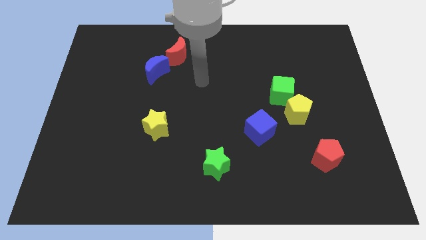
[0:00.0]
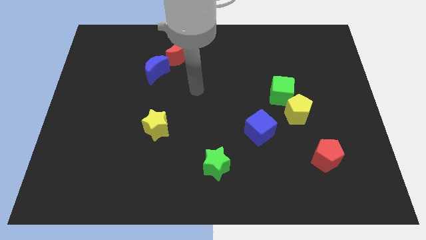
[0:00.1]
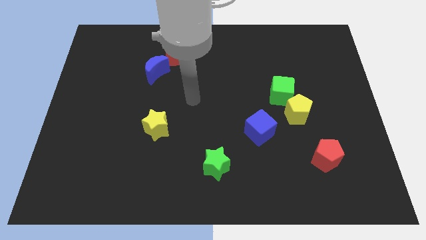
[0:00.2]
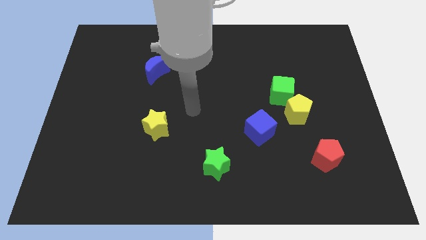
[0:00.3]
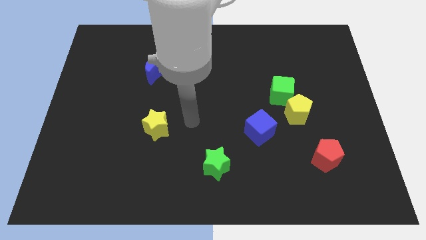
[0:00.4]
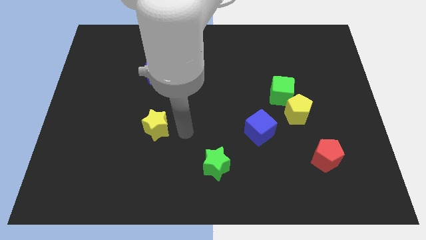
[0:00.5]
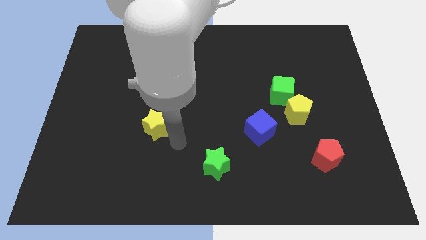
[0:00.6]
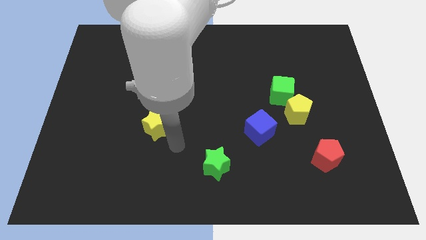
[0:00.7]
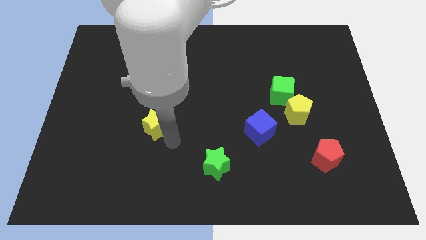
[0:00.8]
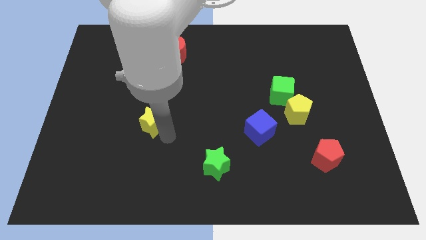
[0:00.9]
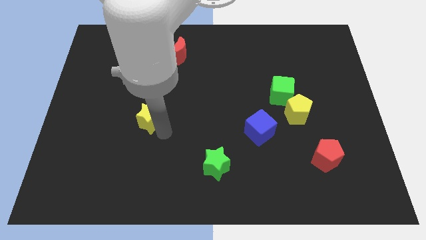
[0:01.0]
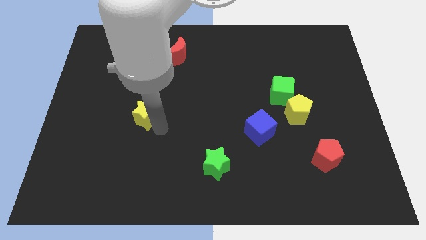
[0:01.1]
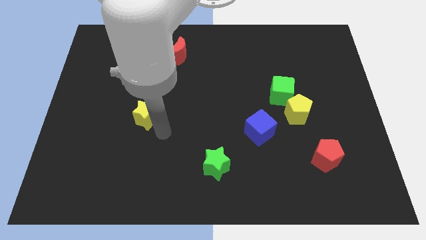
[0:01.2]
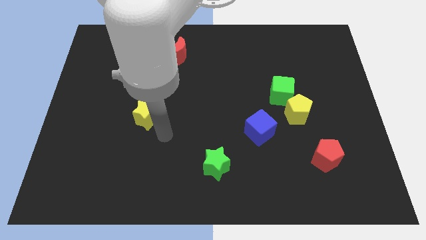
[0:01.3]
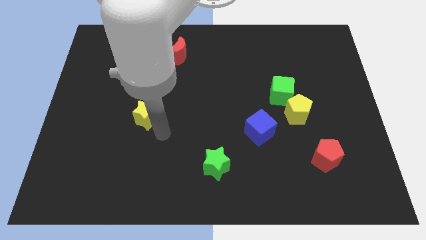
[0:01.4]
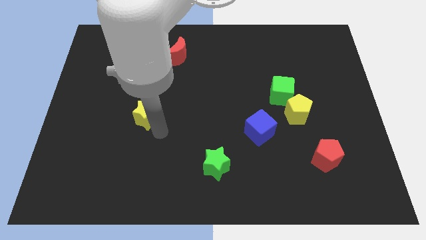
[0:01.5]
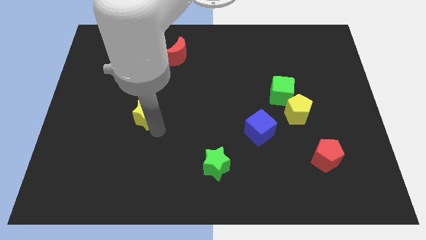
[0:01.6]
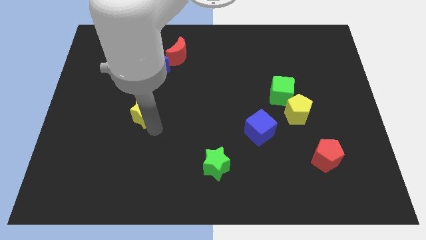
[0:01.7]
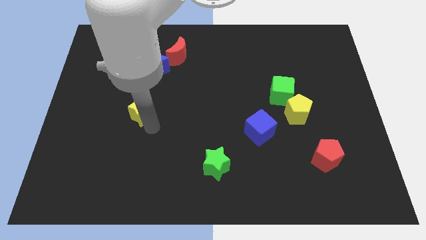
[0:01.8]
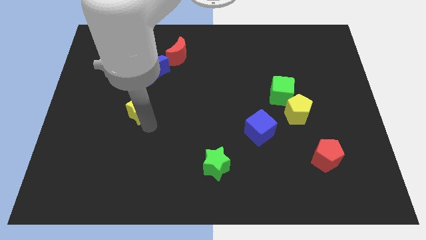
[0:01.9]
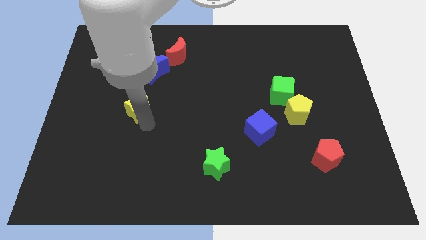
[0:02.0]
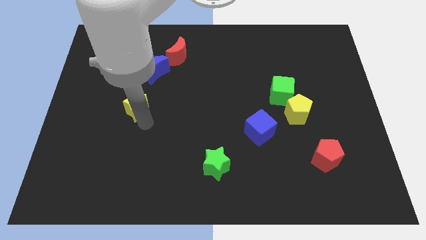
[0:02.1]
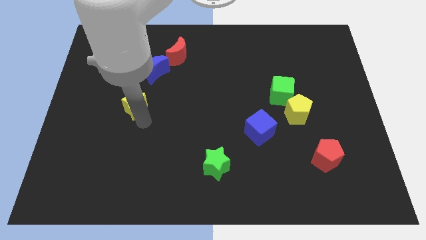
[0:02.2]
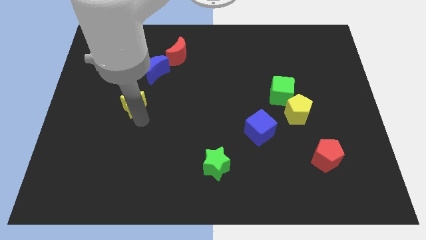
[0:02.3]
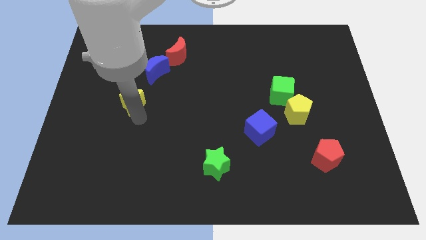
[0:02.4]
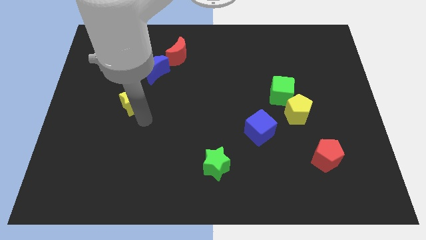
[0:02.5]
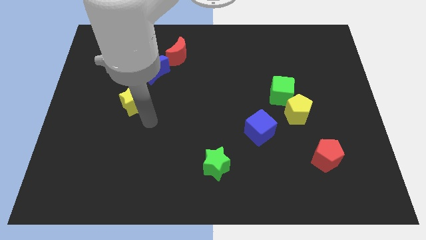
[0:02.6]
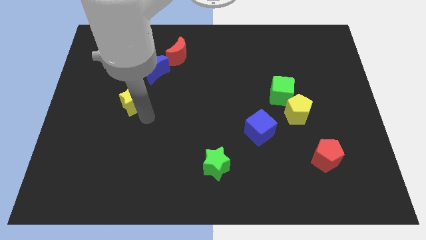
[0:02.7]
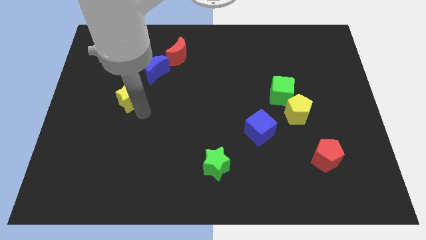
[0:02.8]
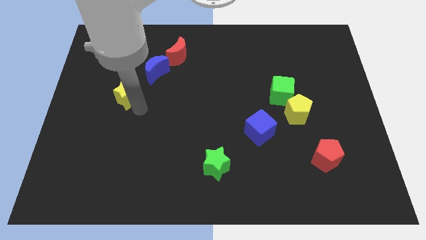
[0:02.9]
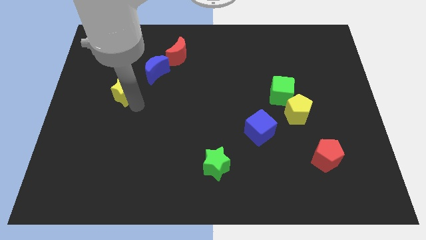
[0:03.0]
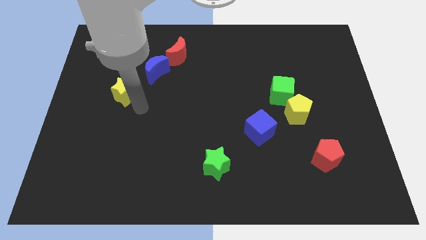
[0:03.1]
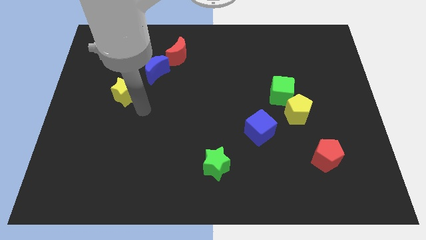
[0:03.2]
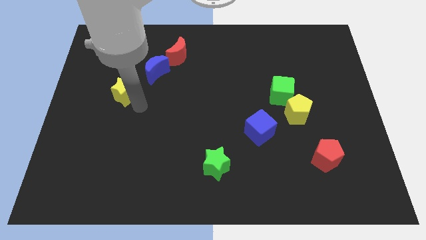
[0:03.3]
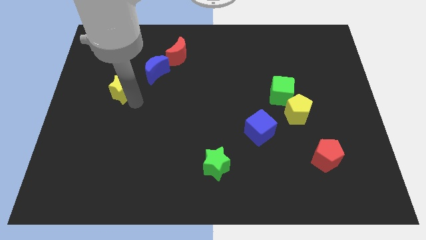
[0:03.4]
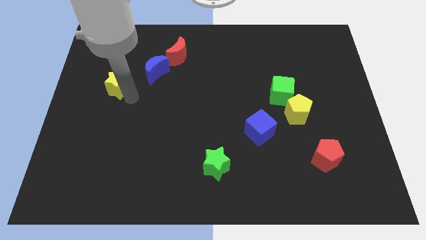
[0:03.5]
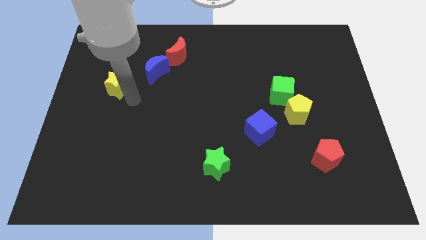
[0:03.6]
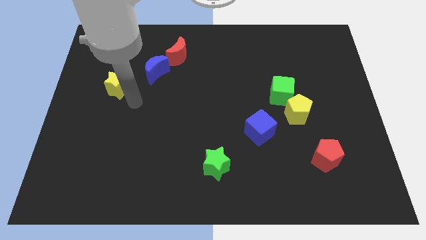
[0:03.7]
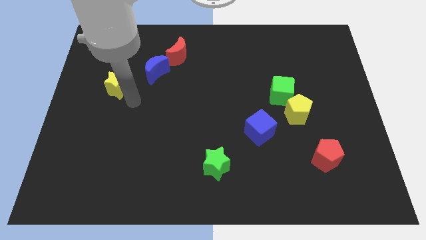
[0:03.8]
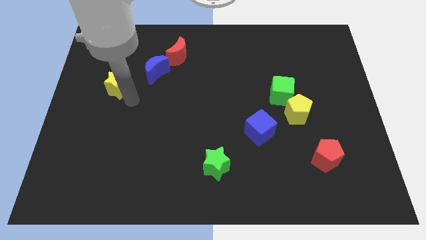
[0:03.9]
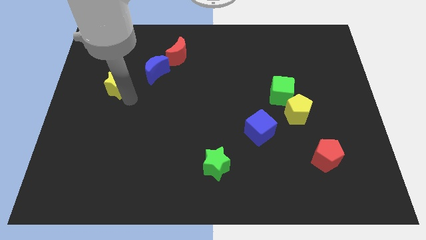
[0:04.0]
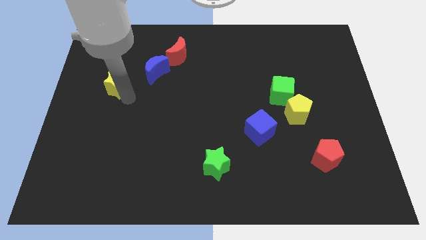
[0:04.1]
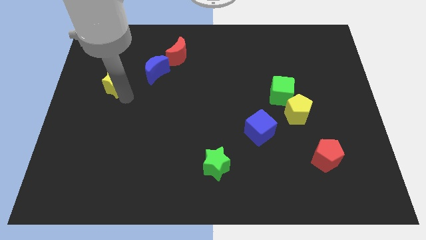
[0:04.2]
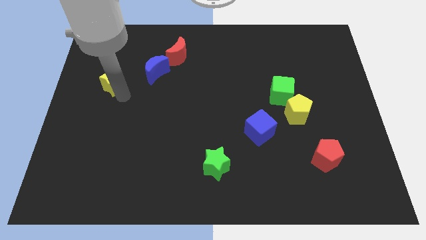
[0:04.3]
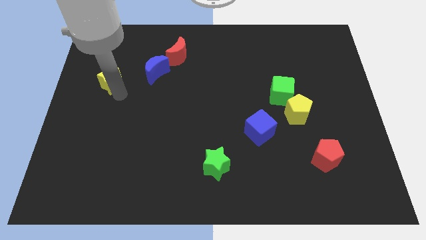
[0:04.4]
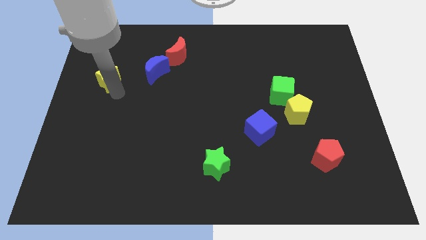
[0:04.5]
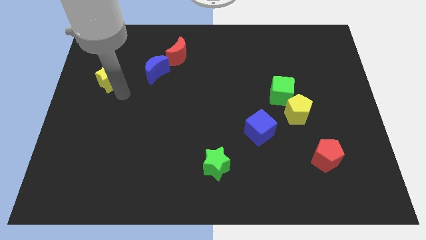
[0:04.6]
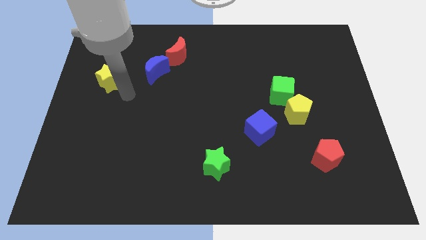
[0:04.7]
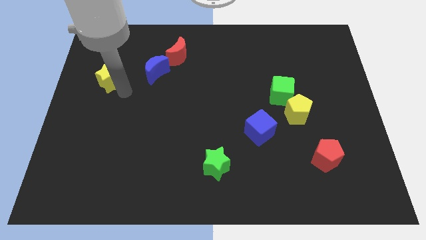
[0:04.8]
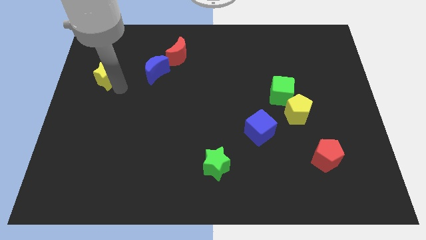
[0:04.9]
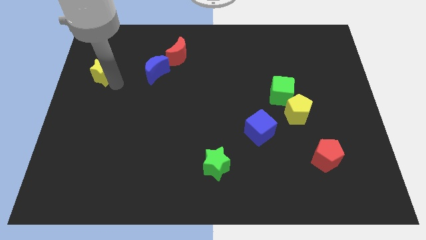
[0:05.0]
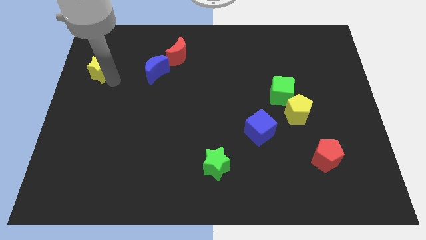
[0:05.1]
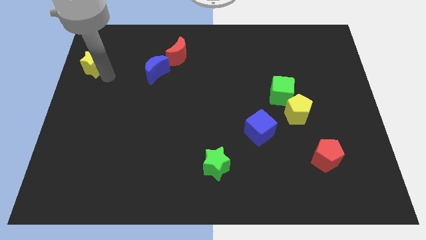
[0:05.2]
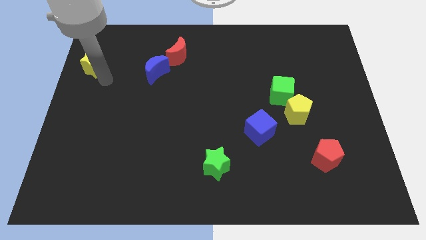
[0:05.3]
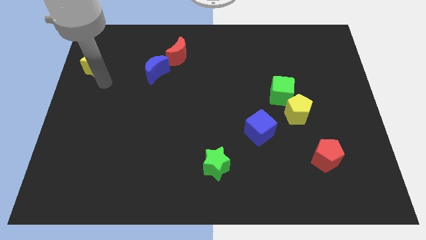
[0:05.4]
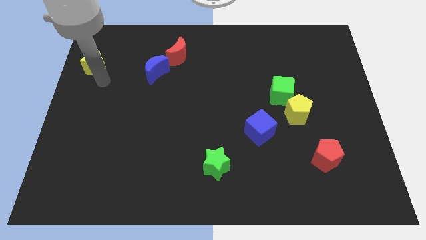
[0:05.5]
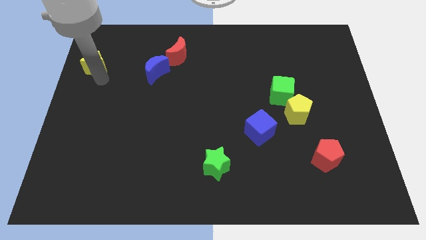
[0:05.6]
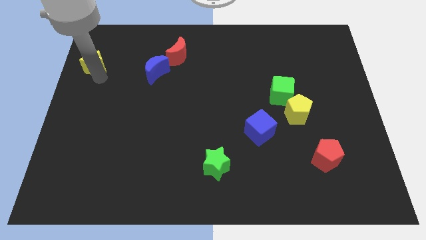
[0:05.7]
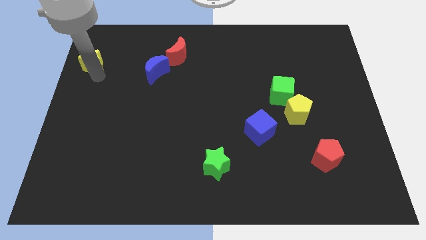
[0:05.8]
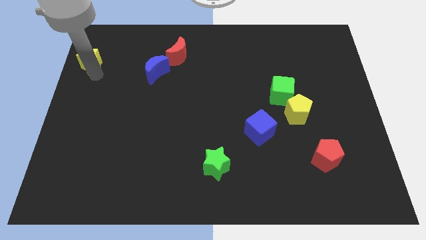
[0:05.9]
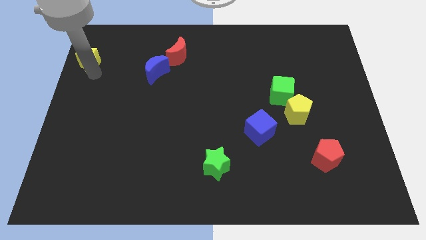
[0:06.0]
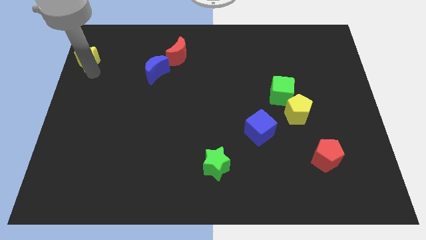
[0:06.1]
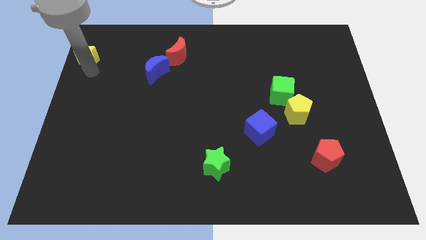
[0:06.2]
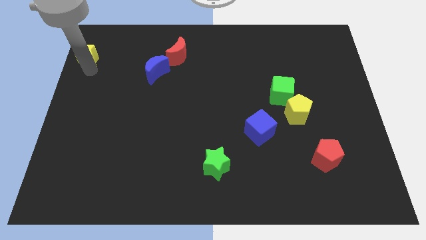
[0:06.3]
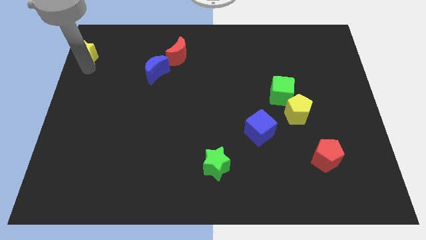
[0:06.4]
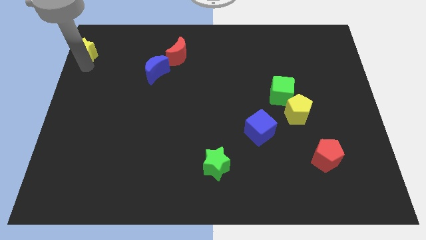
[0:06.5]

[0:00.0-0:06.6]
move the yellow star to the top left of the board
